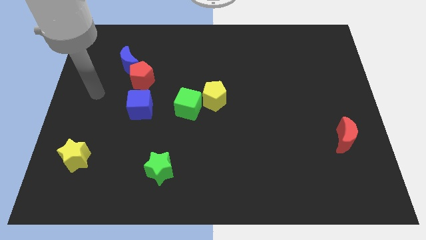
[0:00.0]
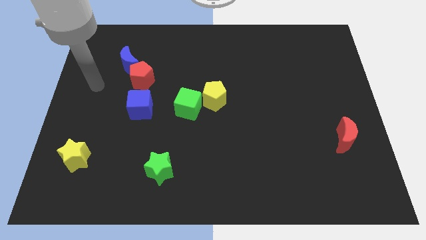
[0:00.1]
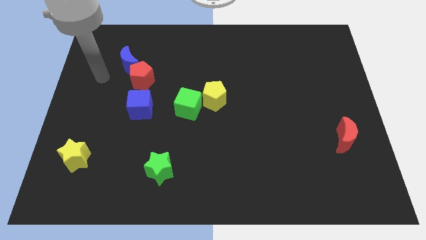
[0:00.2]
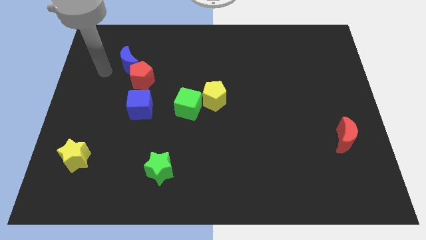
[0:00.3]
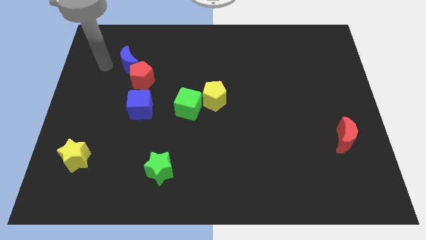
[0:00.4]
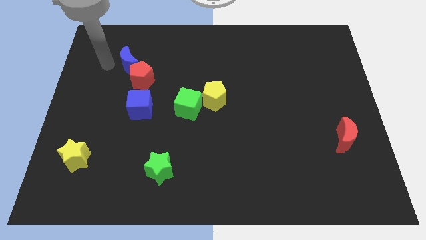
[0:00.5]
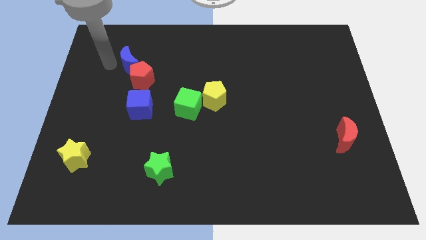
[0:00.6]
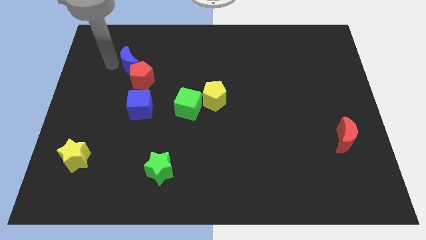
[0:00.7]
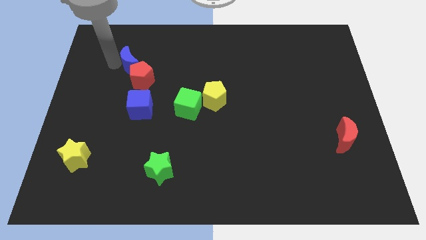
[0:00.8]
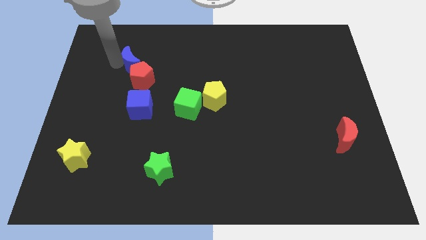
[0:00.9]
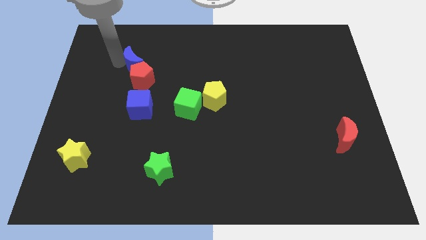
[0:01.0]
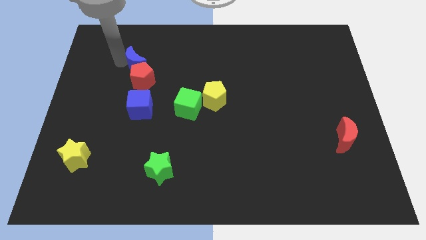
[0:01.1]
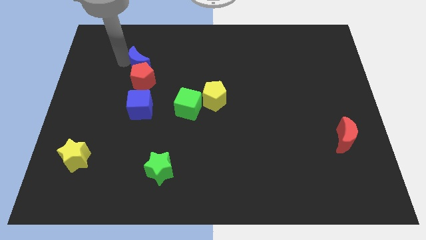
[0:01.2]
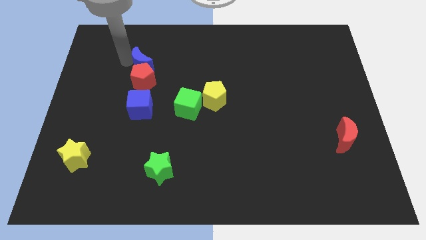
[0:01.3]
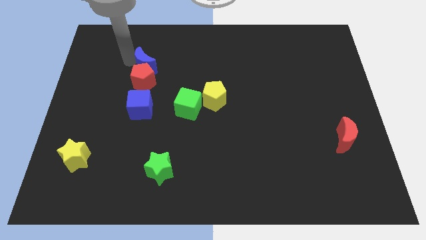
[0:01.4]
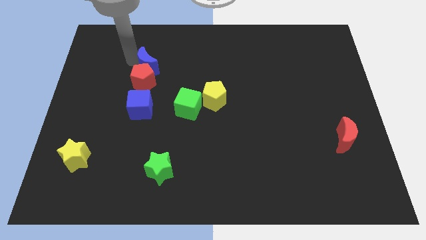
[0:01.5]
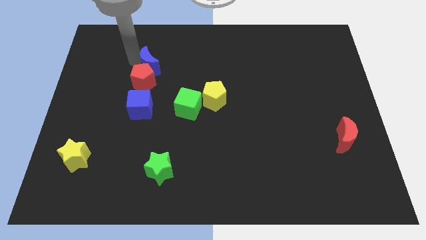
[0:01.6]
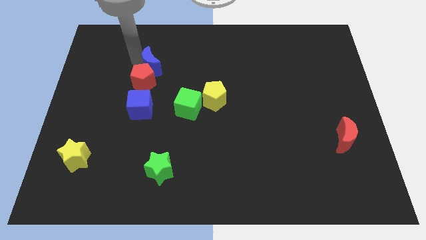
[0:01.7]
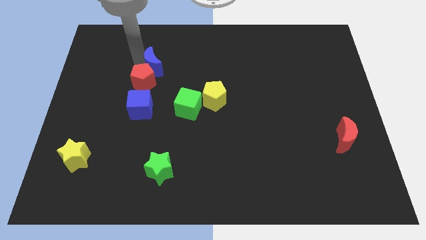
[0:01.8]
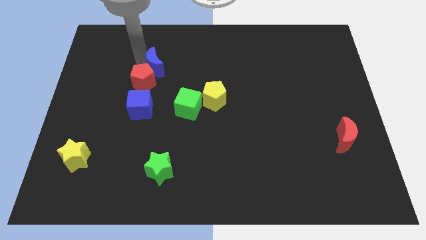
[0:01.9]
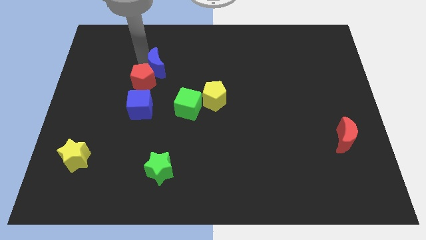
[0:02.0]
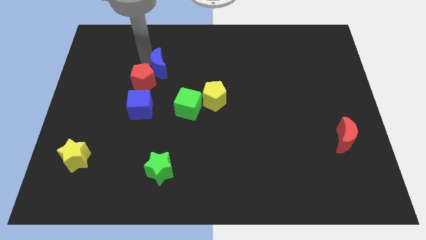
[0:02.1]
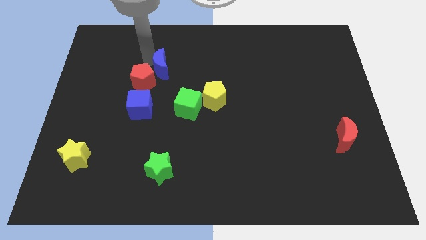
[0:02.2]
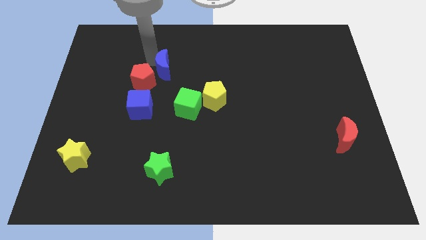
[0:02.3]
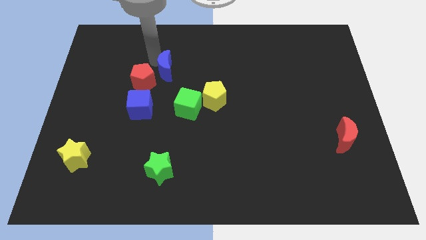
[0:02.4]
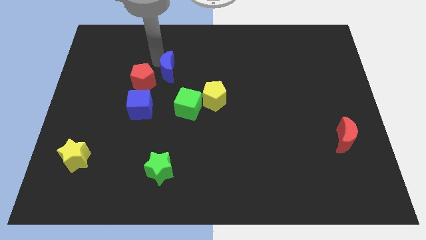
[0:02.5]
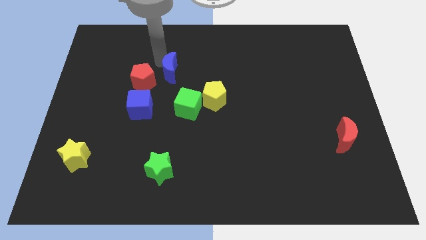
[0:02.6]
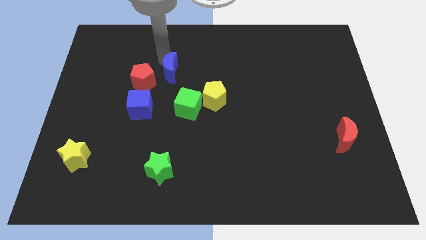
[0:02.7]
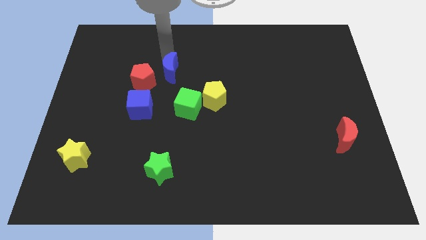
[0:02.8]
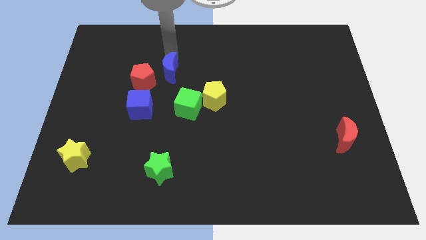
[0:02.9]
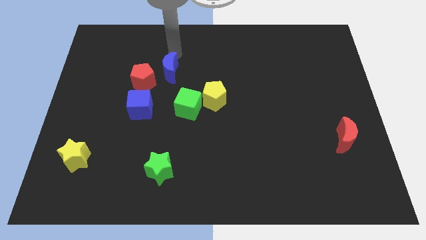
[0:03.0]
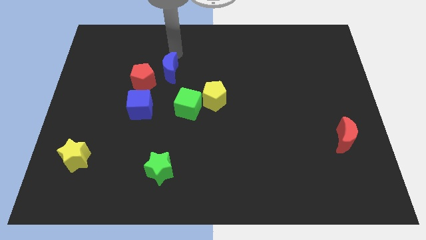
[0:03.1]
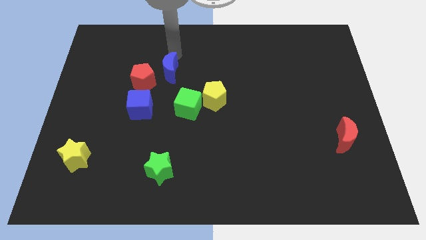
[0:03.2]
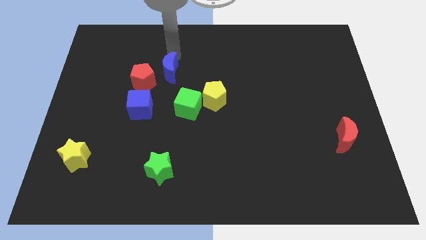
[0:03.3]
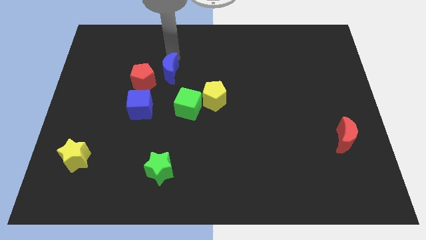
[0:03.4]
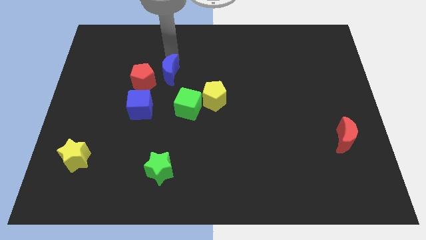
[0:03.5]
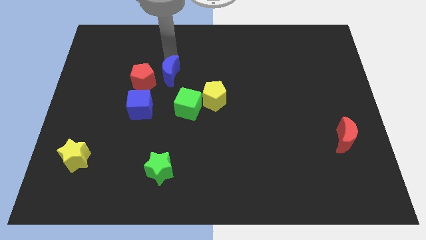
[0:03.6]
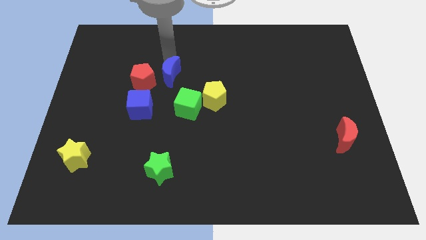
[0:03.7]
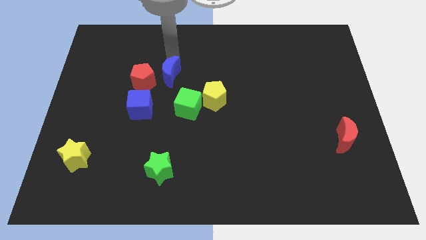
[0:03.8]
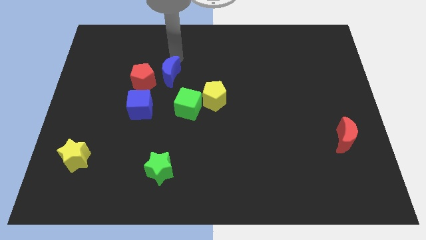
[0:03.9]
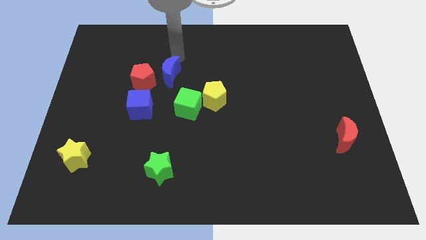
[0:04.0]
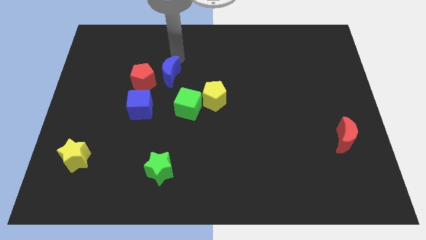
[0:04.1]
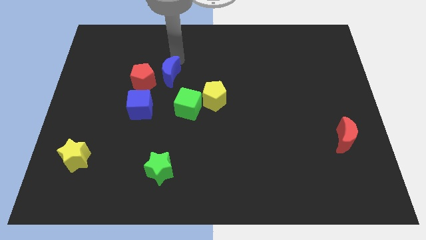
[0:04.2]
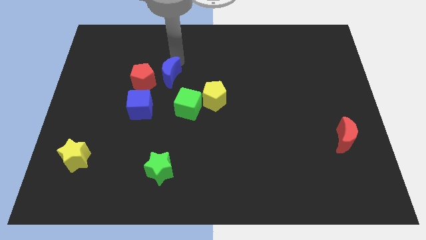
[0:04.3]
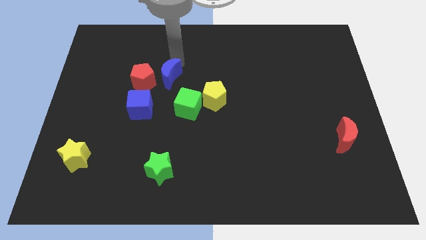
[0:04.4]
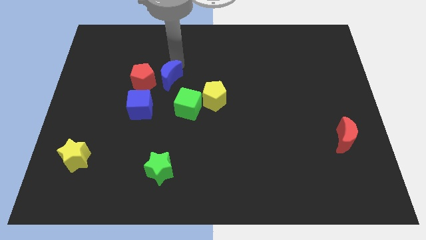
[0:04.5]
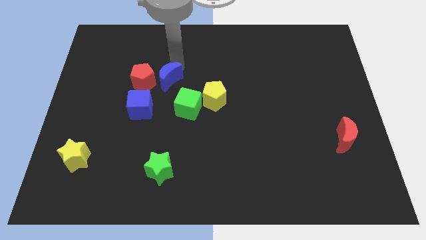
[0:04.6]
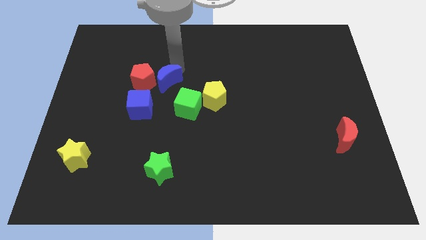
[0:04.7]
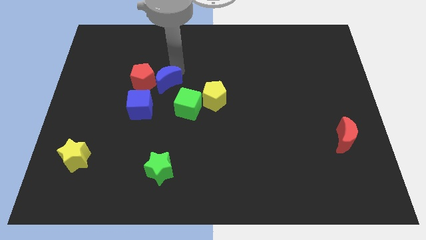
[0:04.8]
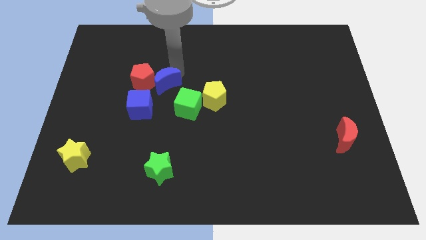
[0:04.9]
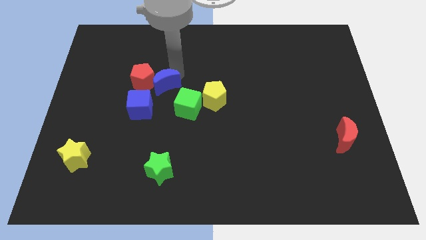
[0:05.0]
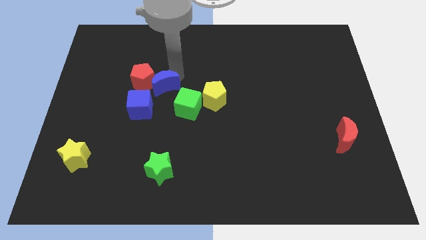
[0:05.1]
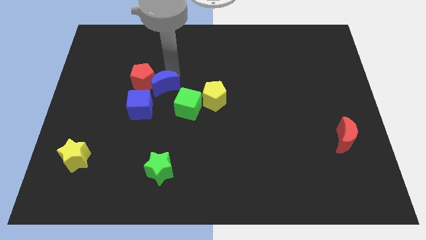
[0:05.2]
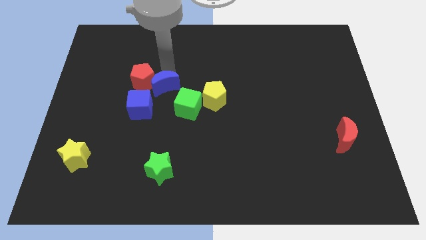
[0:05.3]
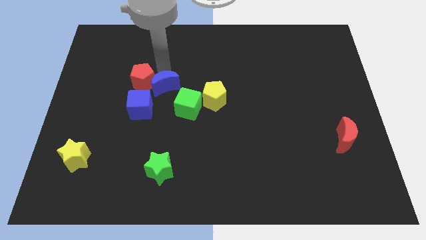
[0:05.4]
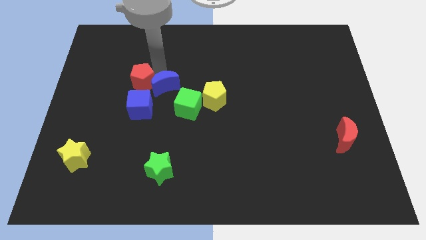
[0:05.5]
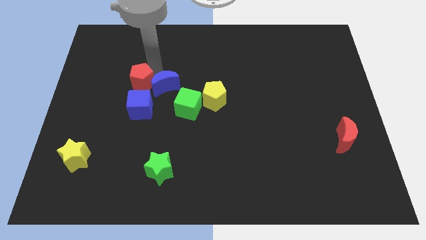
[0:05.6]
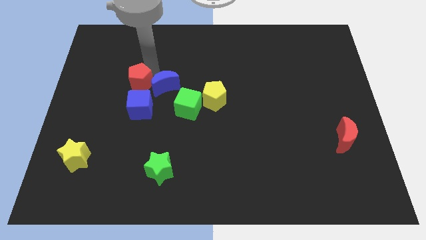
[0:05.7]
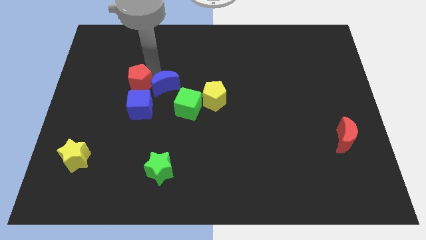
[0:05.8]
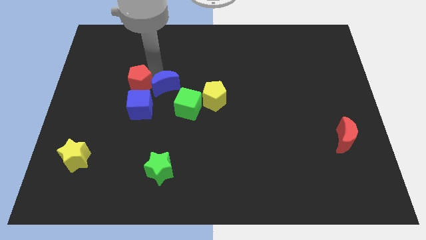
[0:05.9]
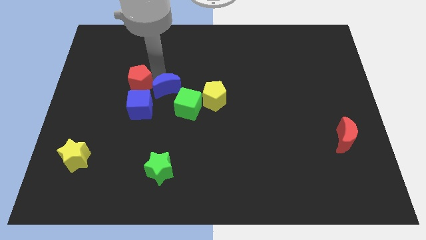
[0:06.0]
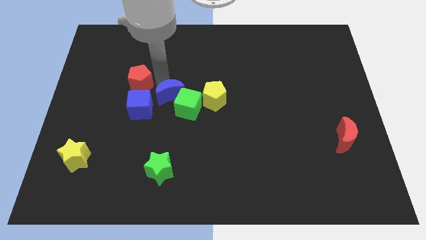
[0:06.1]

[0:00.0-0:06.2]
slide the blue moon close to the green cube

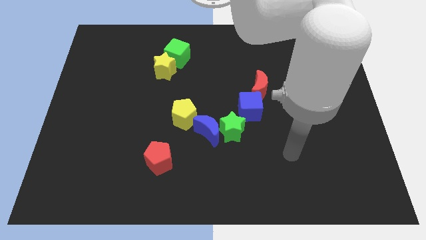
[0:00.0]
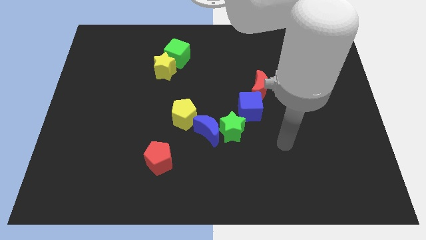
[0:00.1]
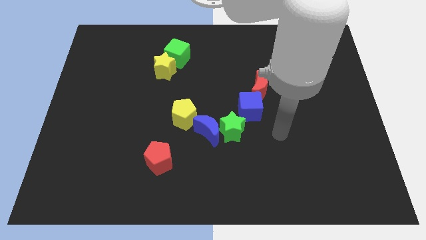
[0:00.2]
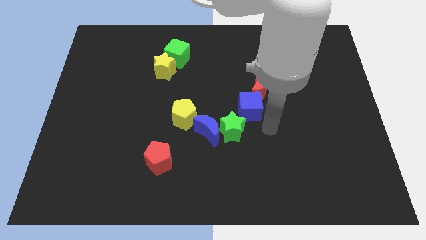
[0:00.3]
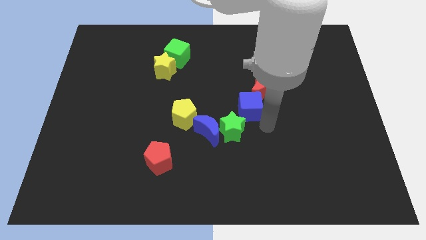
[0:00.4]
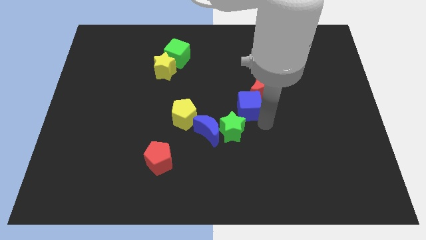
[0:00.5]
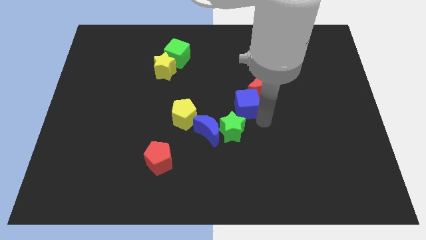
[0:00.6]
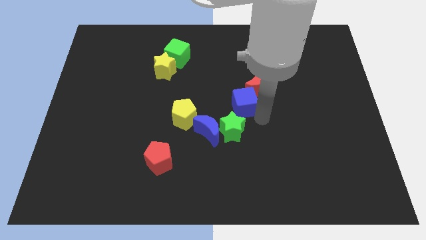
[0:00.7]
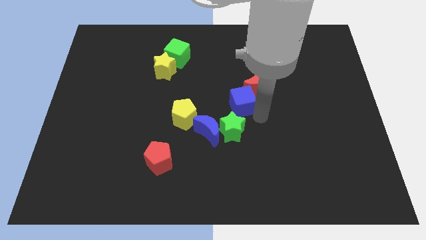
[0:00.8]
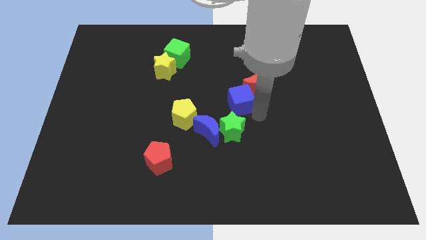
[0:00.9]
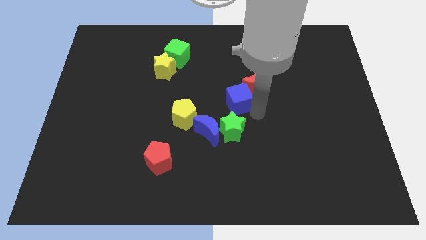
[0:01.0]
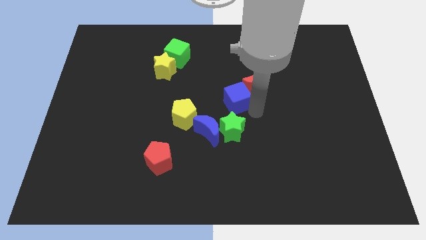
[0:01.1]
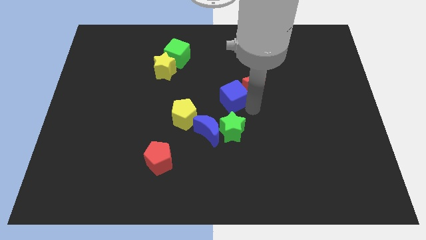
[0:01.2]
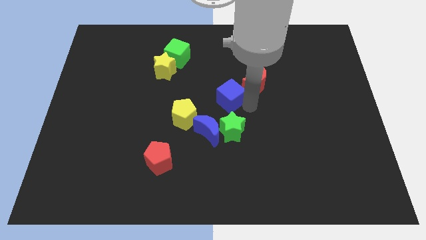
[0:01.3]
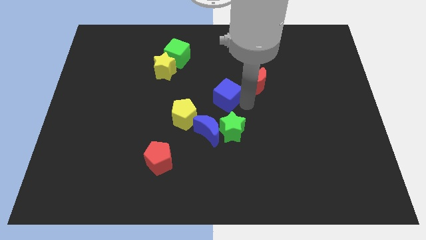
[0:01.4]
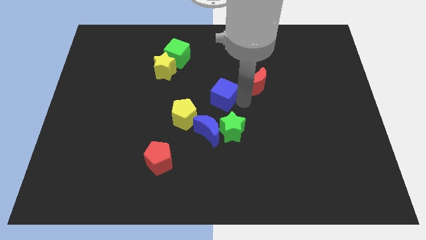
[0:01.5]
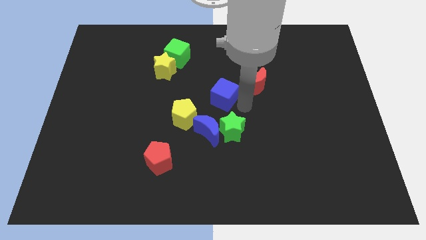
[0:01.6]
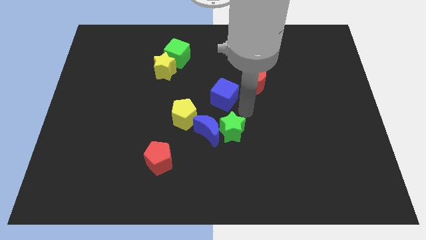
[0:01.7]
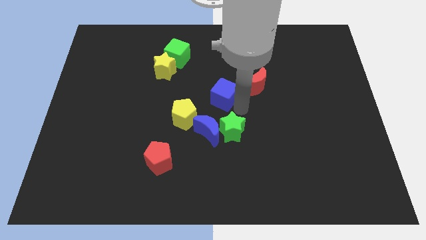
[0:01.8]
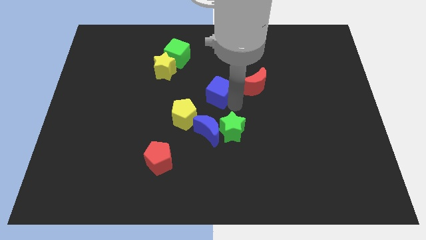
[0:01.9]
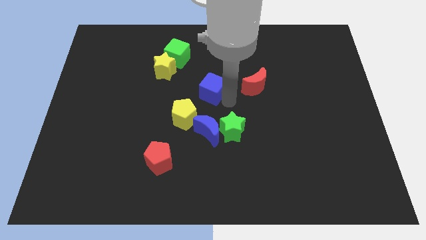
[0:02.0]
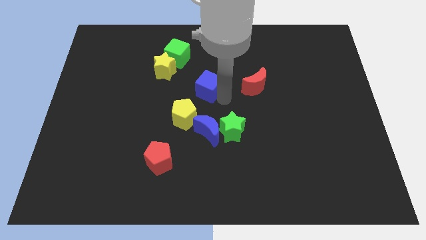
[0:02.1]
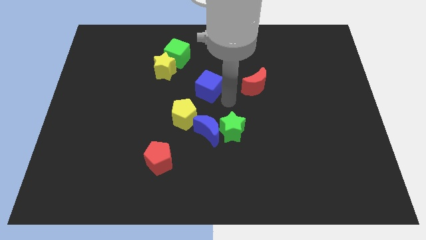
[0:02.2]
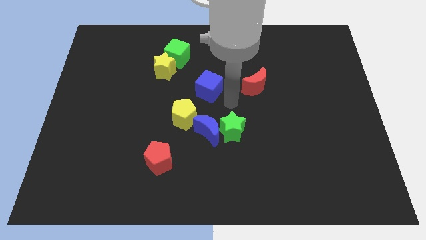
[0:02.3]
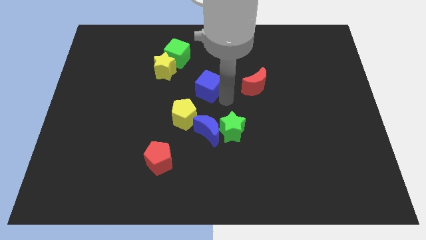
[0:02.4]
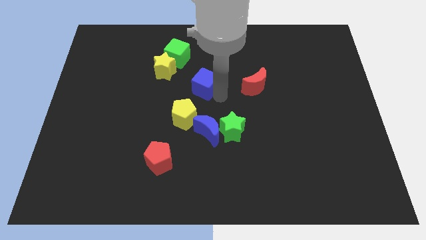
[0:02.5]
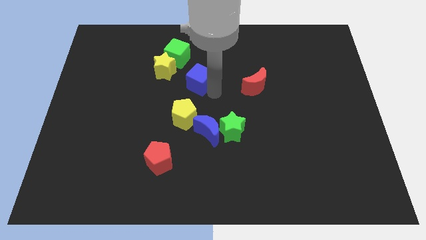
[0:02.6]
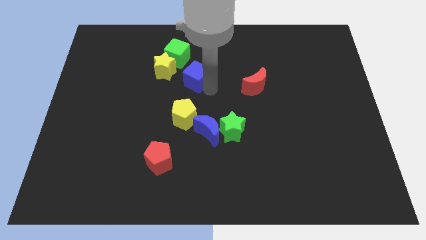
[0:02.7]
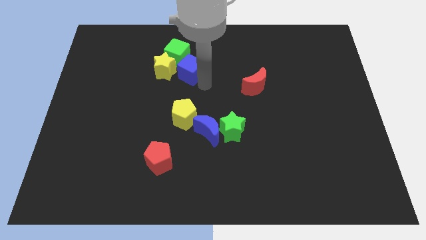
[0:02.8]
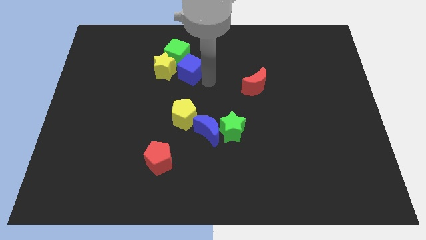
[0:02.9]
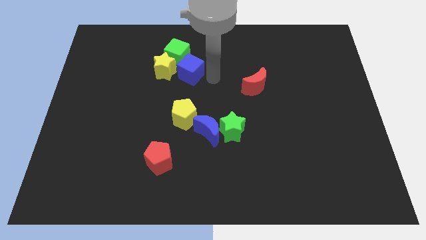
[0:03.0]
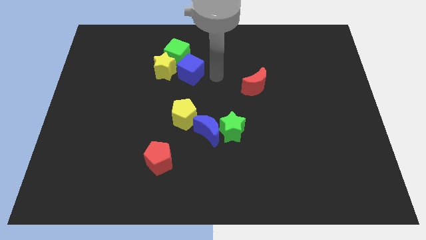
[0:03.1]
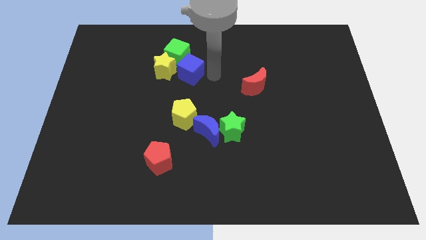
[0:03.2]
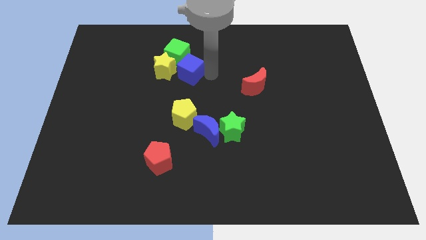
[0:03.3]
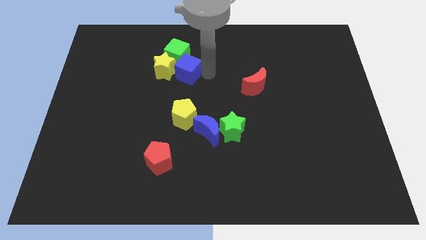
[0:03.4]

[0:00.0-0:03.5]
push the blue cube close to the yellow star
